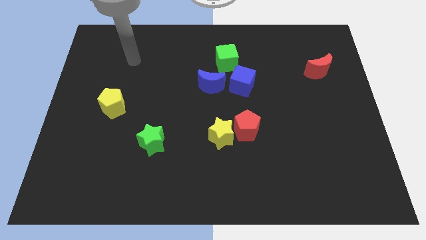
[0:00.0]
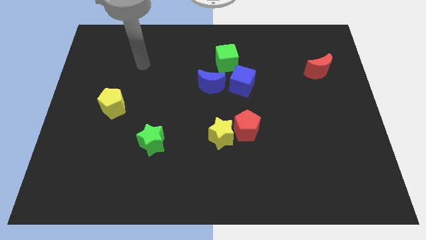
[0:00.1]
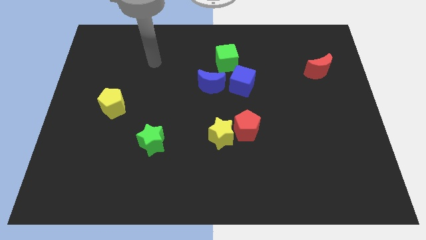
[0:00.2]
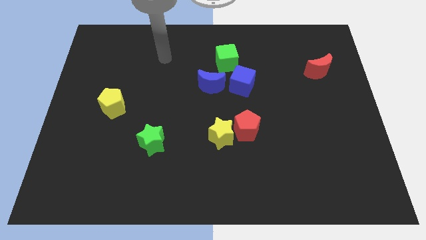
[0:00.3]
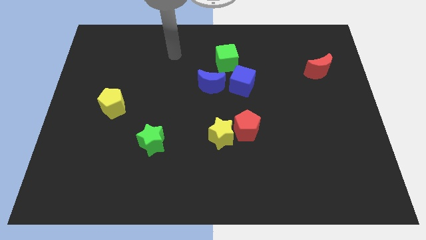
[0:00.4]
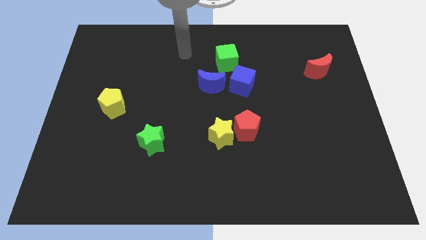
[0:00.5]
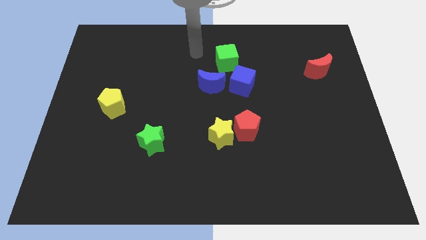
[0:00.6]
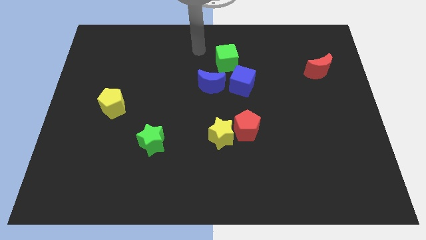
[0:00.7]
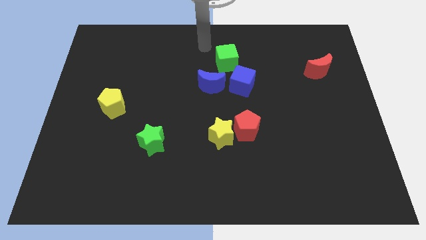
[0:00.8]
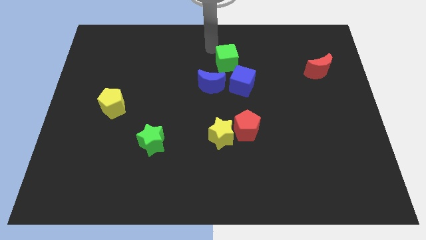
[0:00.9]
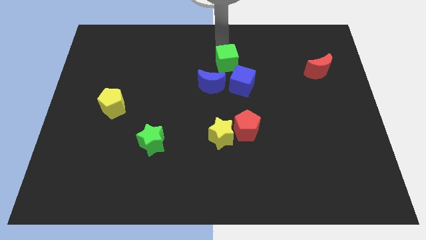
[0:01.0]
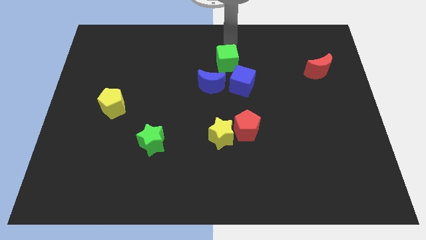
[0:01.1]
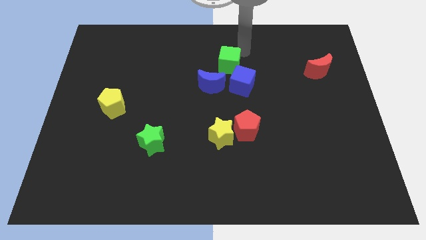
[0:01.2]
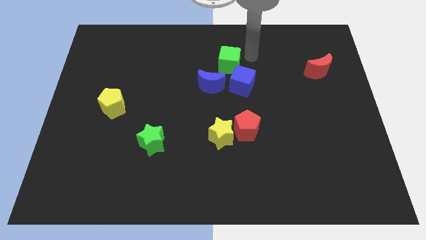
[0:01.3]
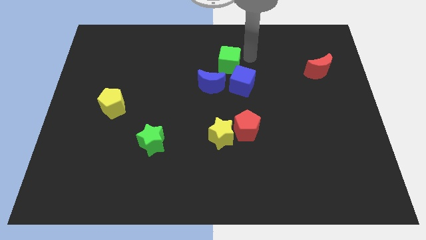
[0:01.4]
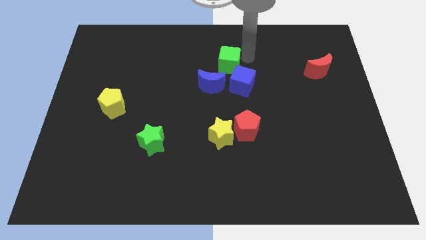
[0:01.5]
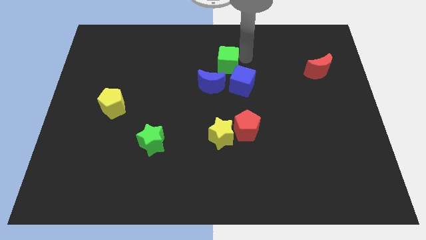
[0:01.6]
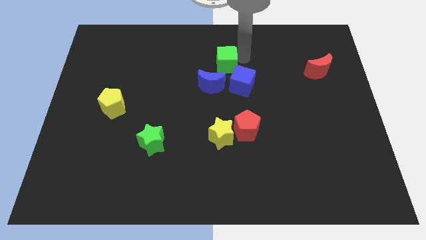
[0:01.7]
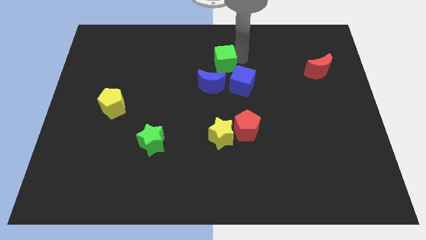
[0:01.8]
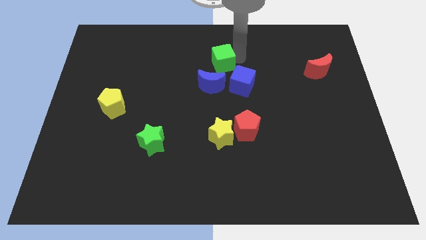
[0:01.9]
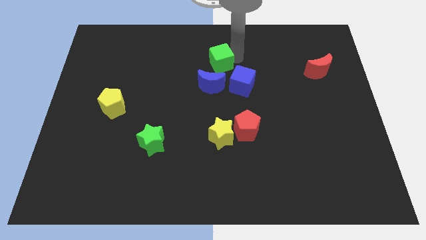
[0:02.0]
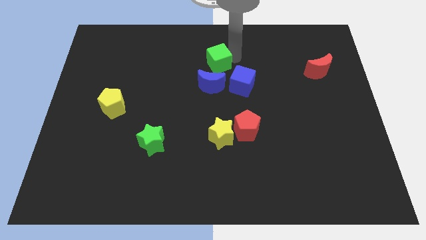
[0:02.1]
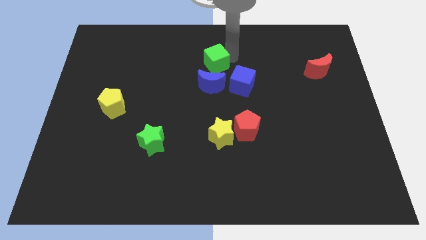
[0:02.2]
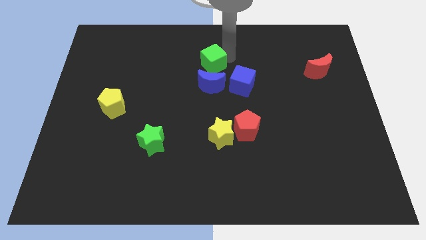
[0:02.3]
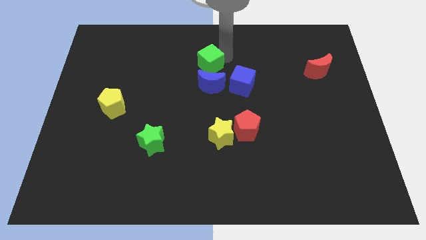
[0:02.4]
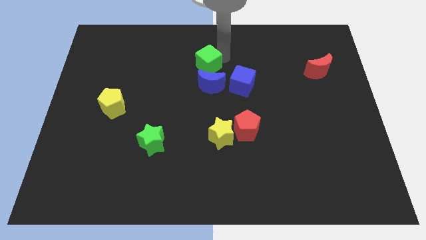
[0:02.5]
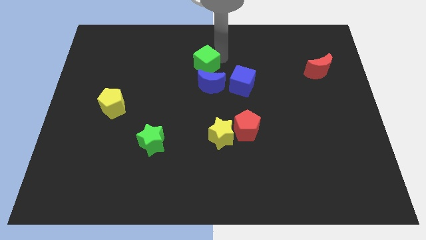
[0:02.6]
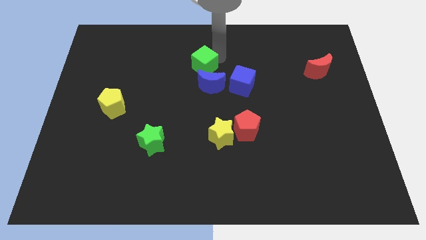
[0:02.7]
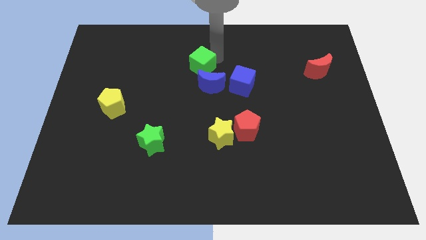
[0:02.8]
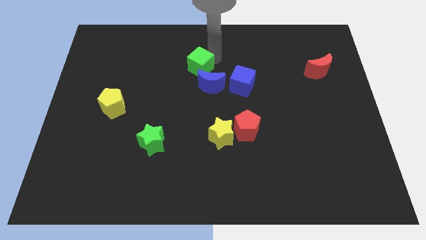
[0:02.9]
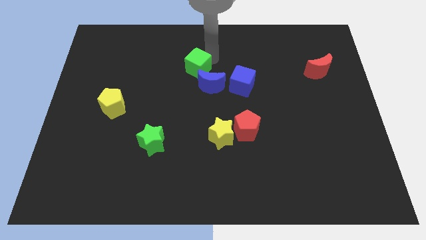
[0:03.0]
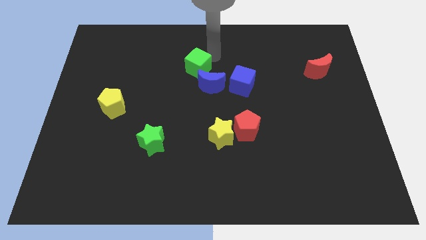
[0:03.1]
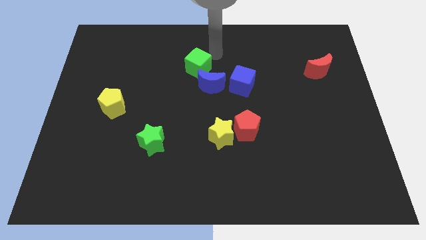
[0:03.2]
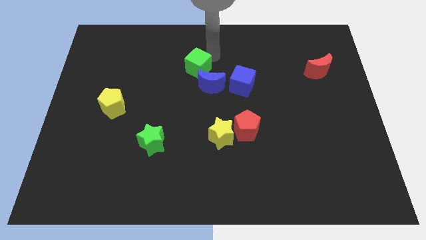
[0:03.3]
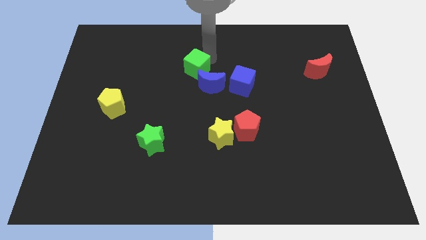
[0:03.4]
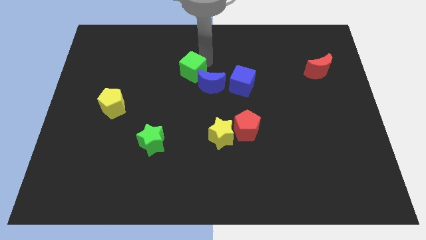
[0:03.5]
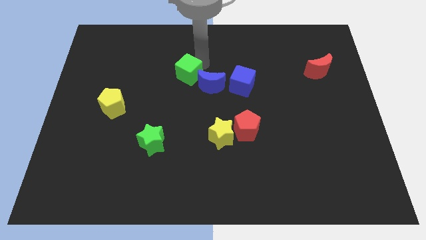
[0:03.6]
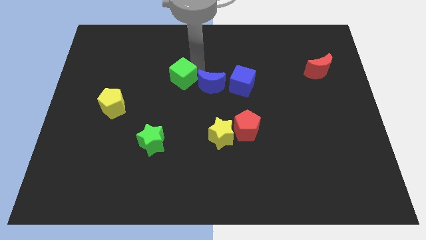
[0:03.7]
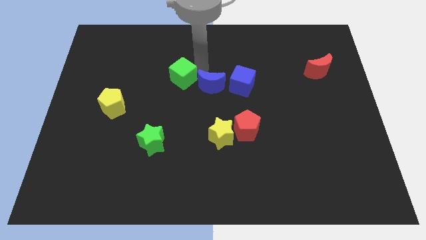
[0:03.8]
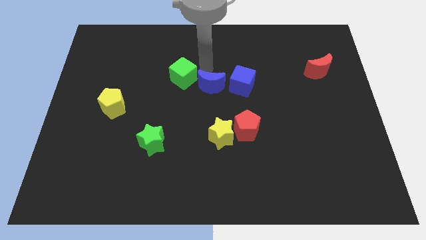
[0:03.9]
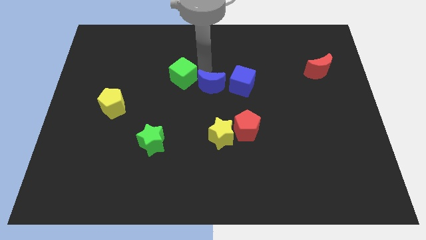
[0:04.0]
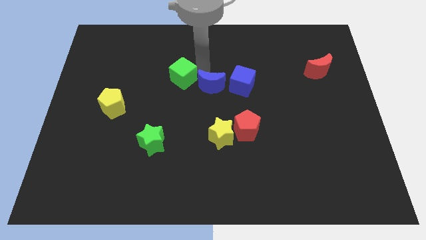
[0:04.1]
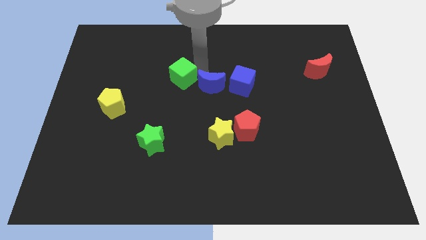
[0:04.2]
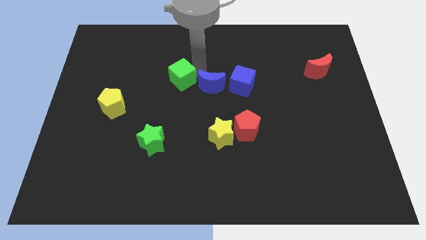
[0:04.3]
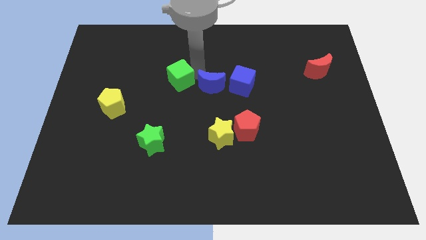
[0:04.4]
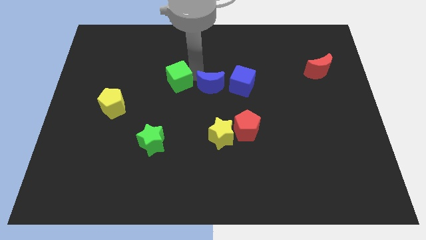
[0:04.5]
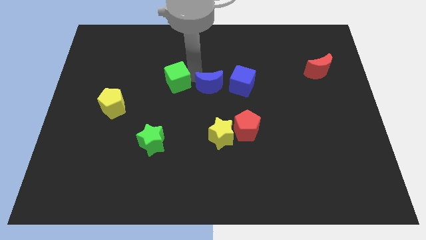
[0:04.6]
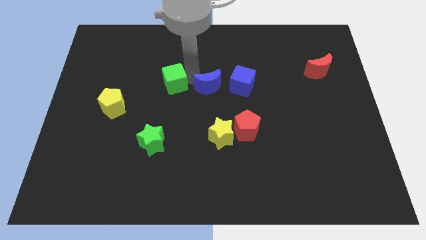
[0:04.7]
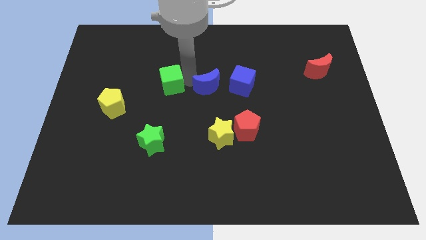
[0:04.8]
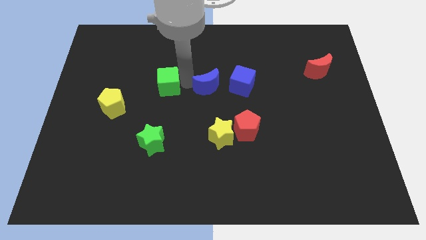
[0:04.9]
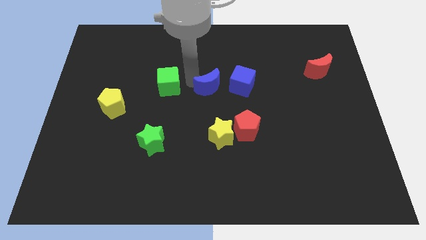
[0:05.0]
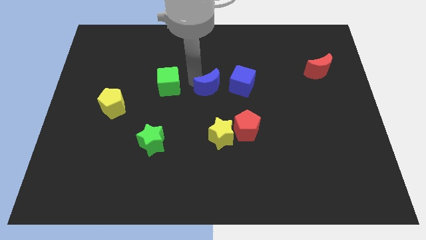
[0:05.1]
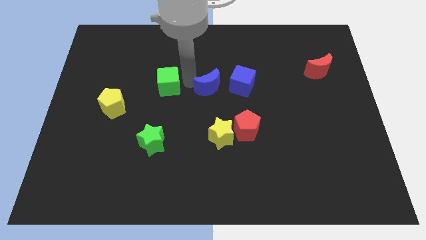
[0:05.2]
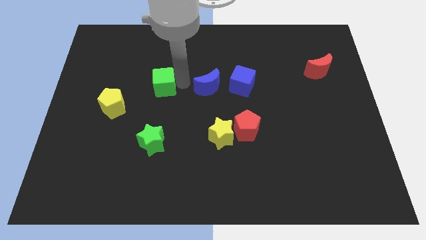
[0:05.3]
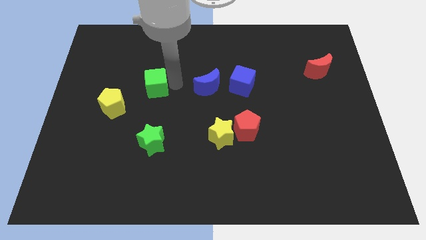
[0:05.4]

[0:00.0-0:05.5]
move the green cube diagonally up and to the right of the yellow pentagon
